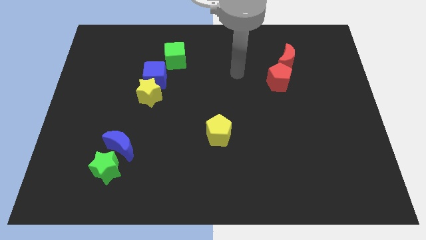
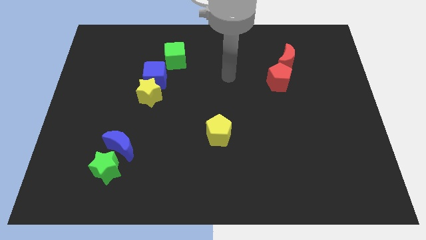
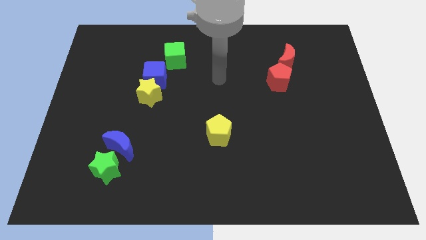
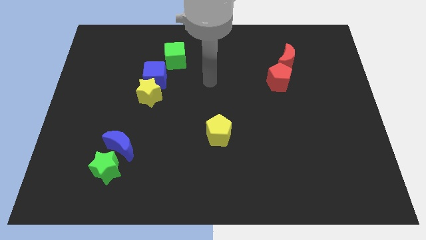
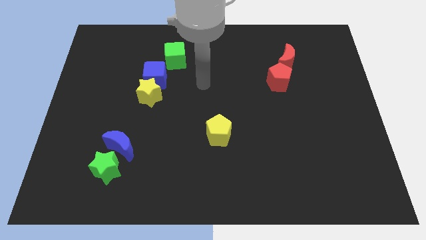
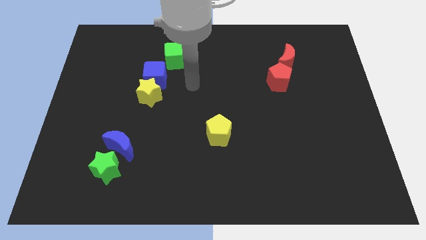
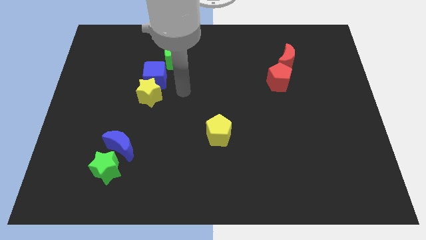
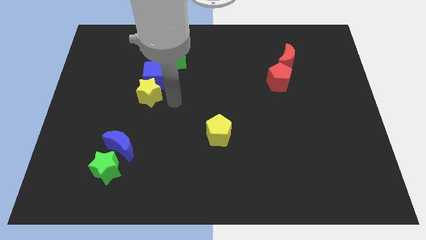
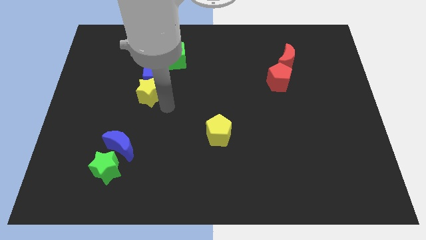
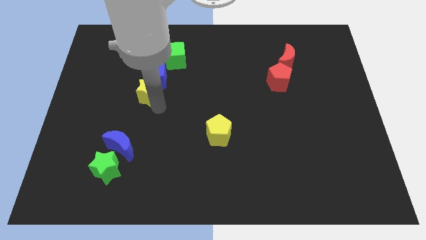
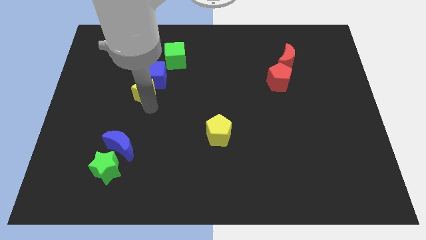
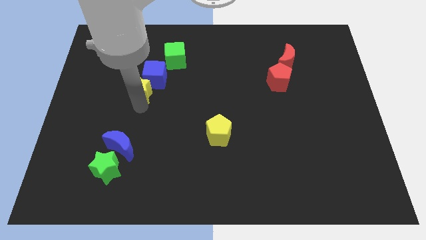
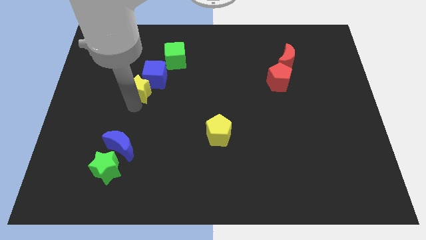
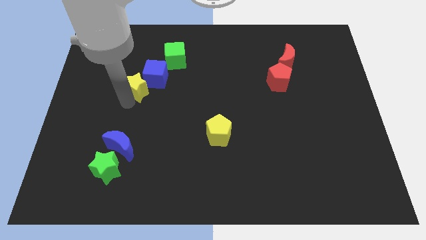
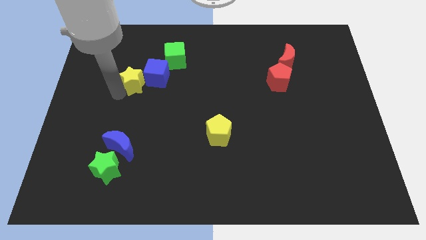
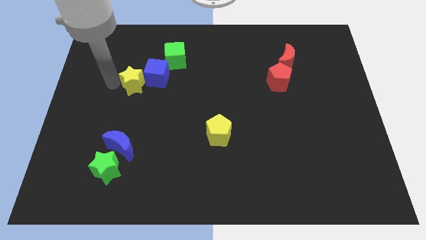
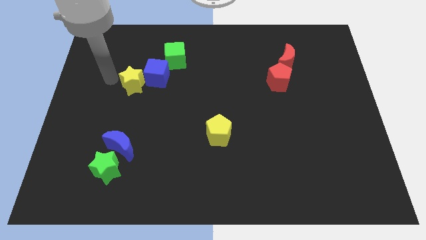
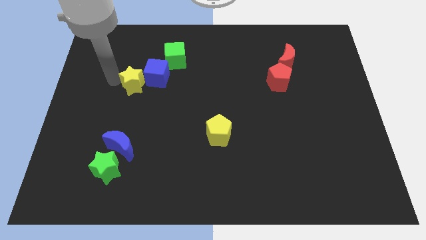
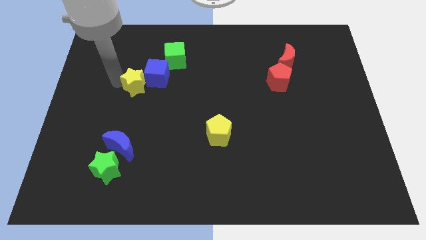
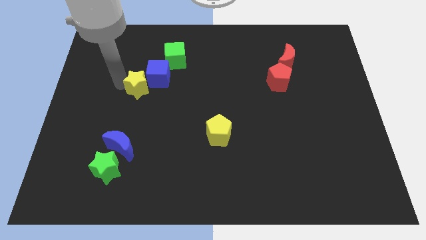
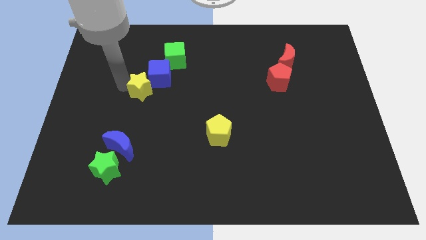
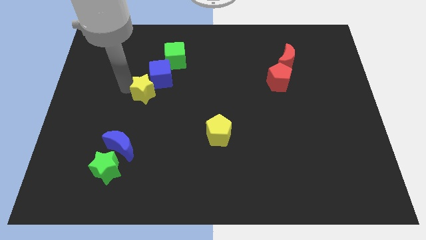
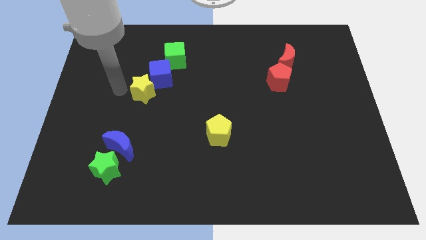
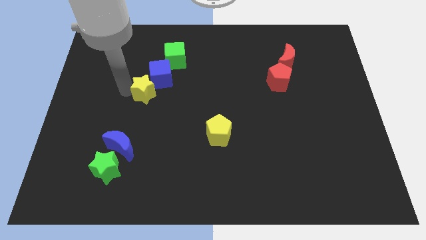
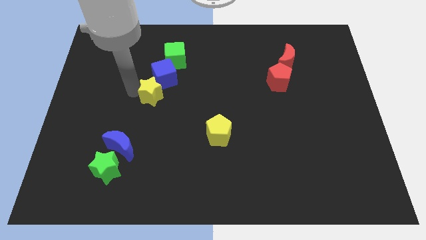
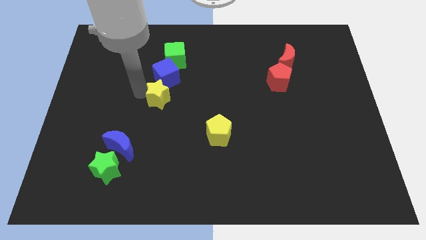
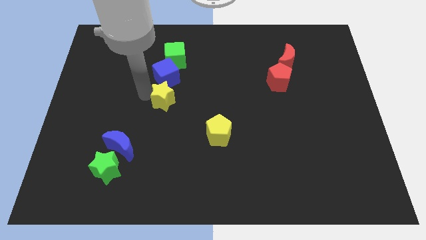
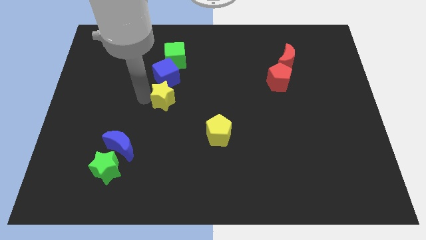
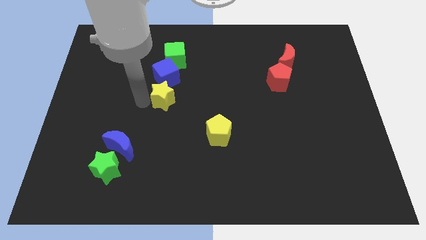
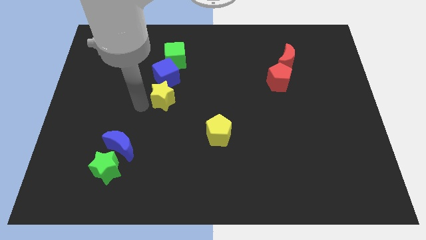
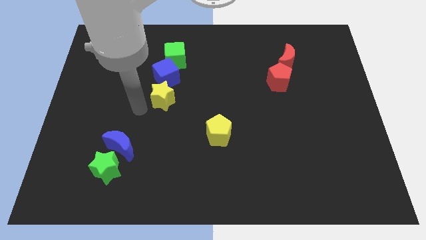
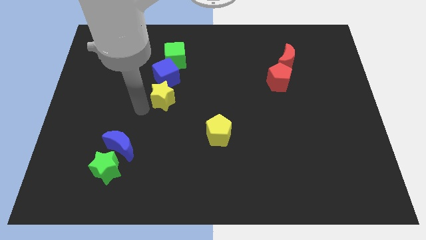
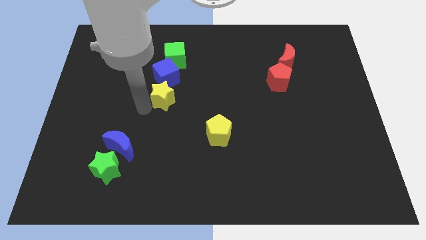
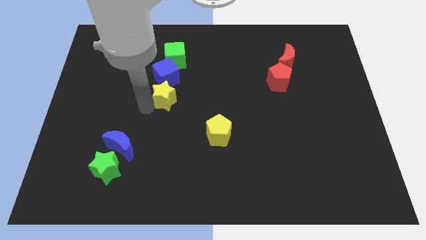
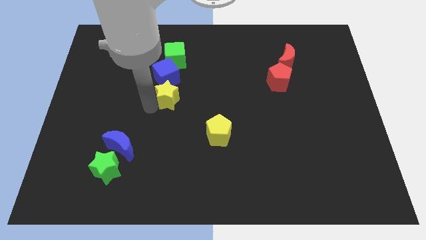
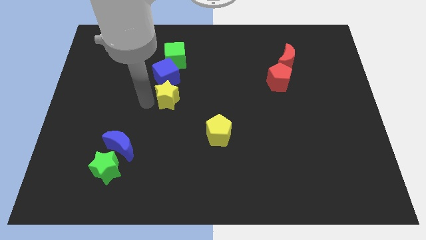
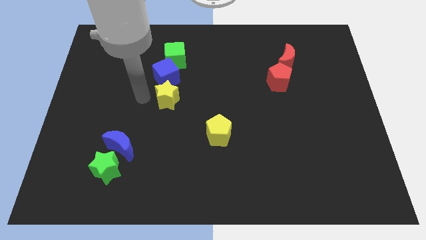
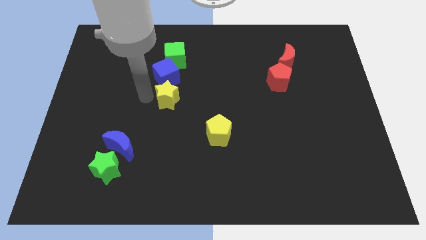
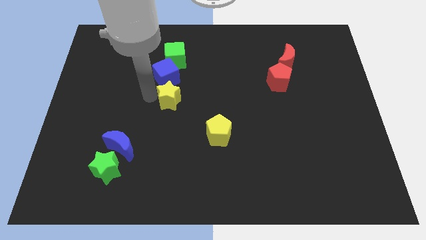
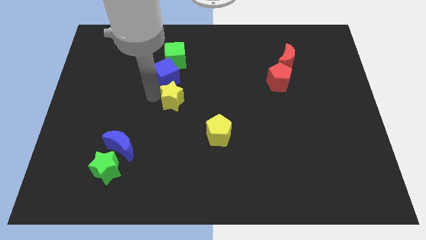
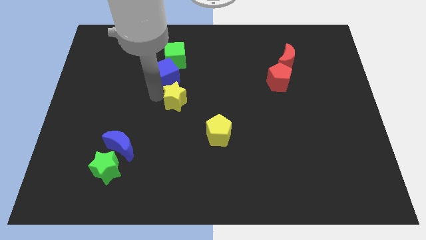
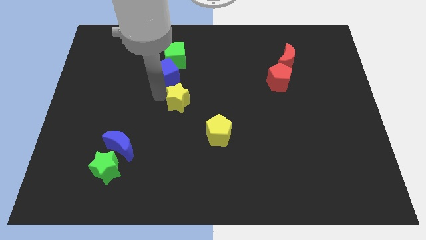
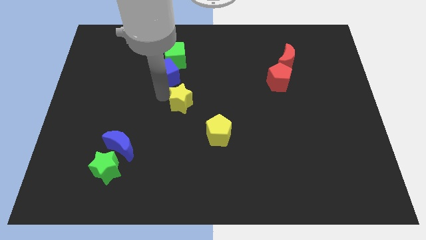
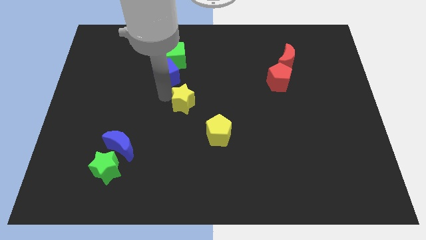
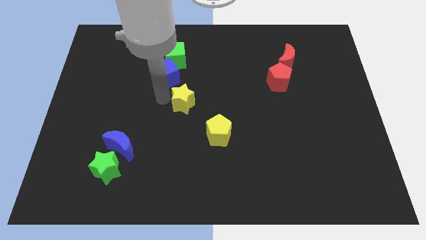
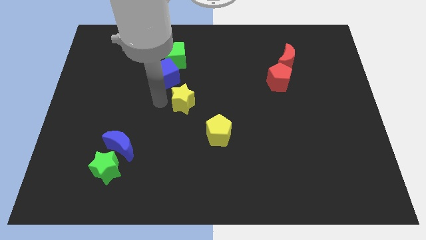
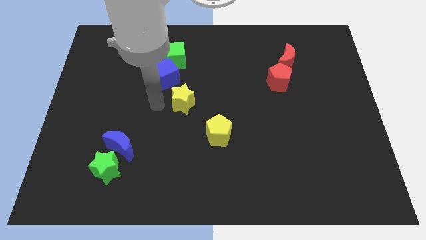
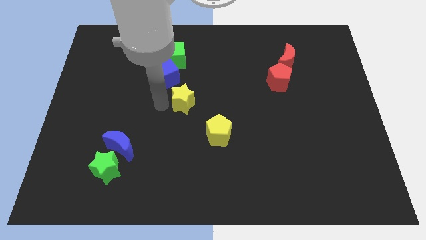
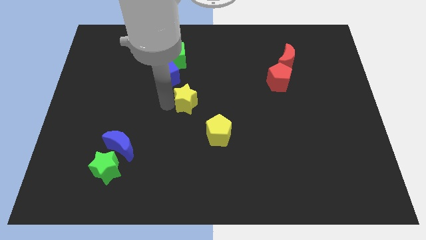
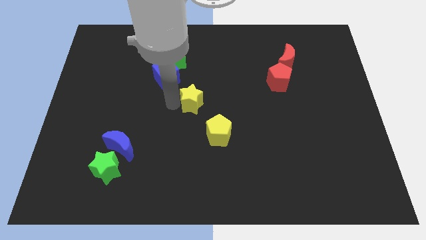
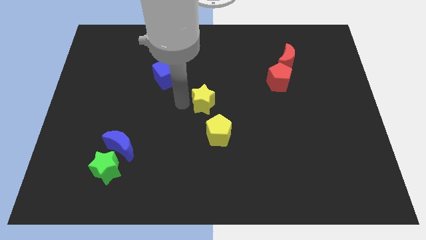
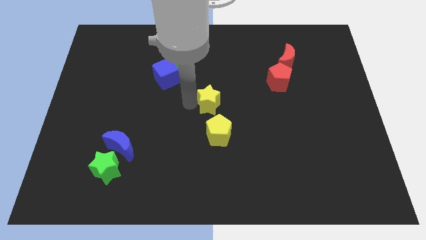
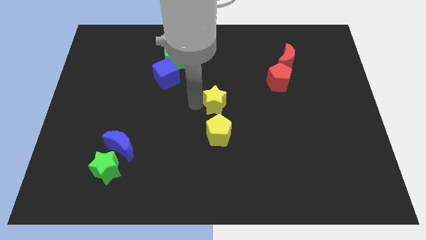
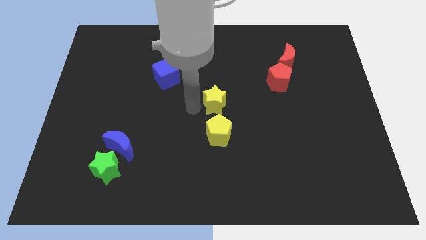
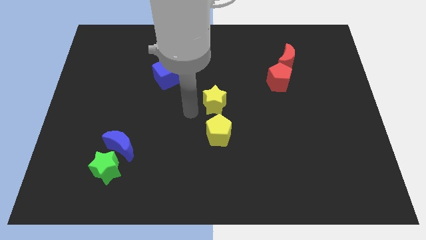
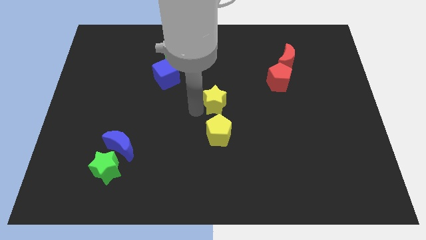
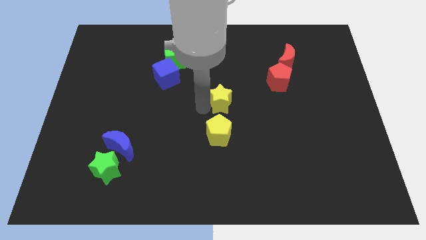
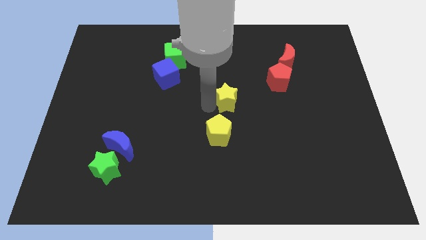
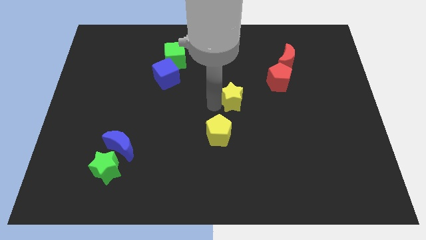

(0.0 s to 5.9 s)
move the yellow star to the right

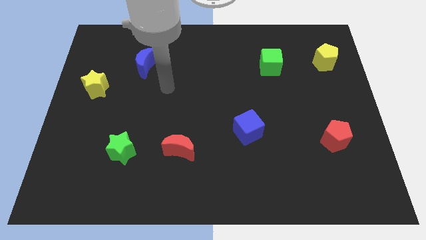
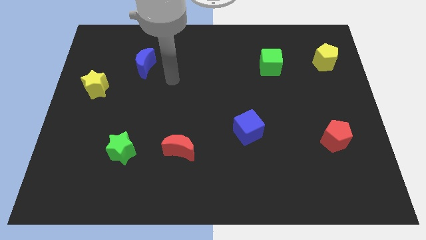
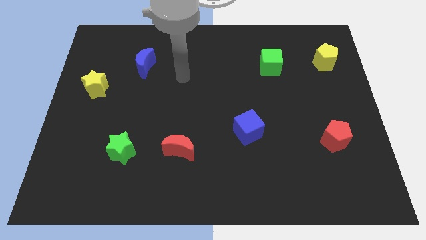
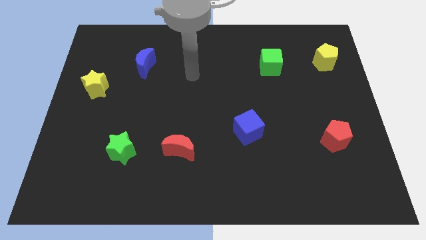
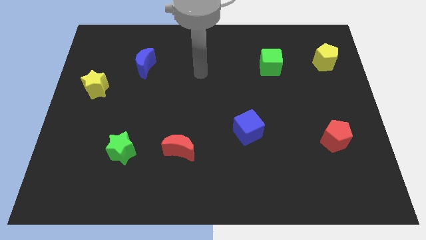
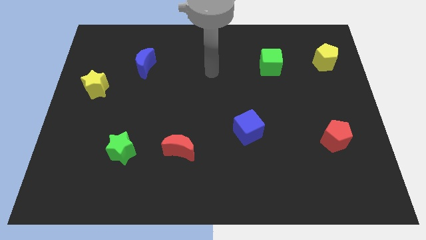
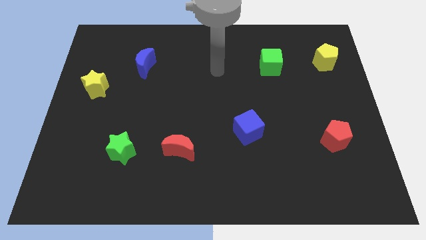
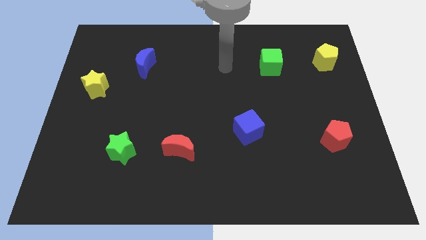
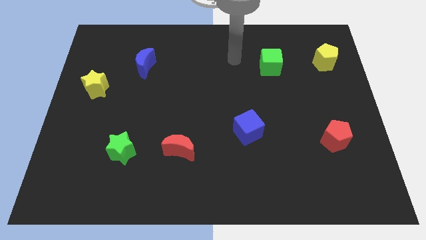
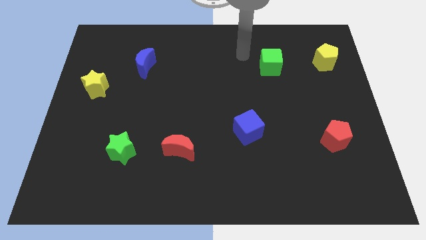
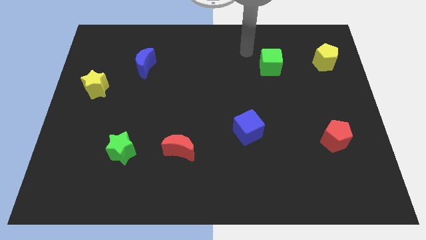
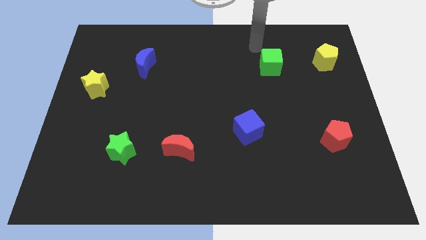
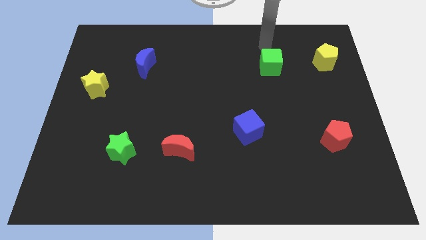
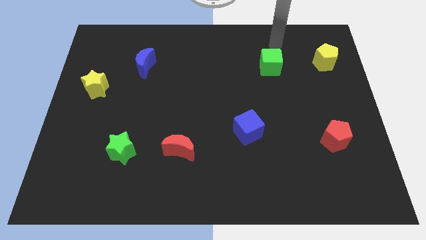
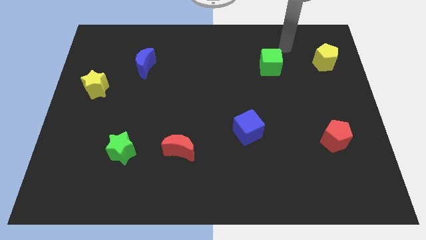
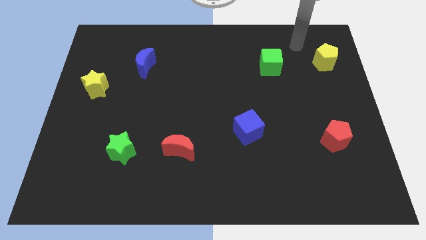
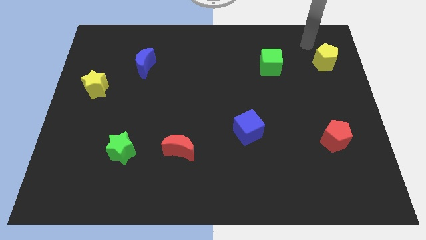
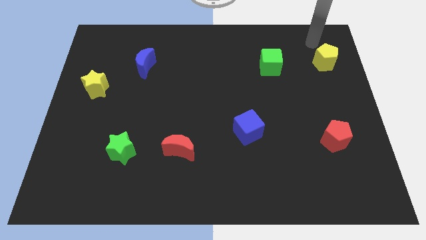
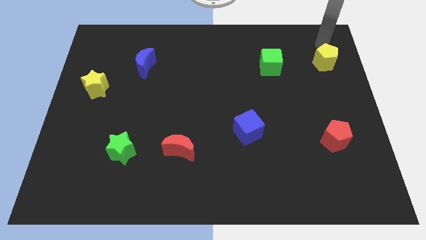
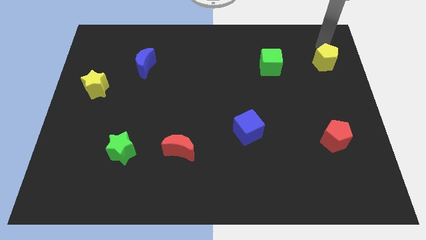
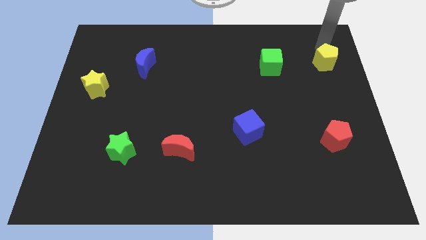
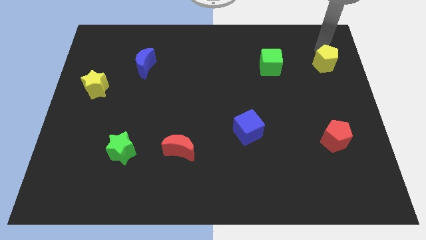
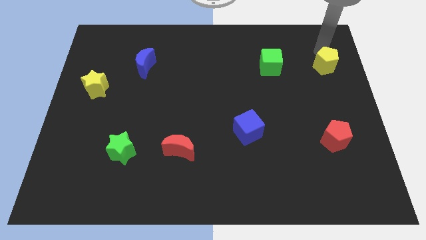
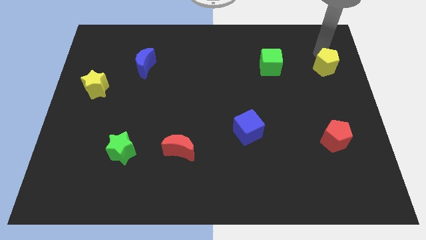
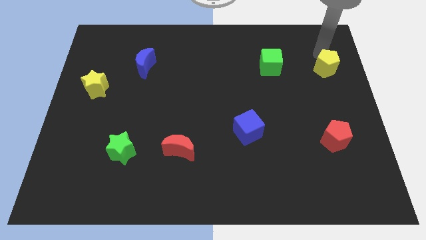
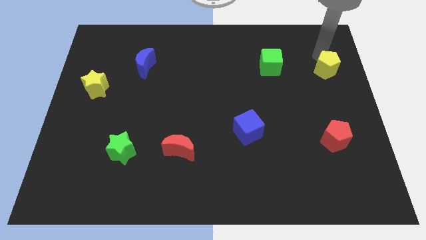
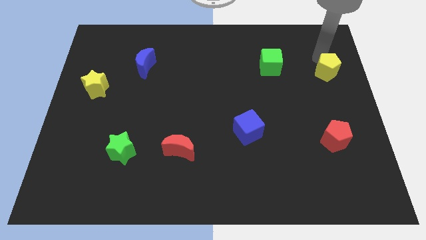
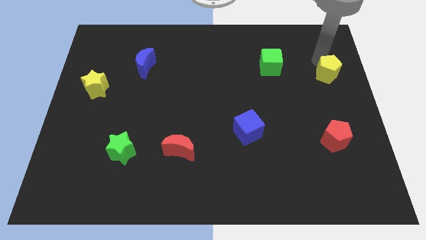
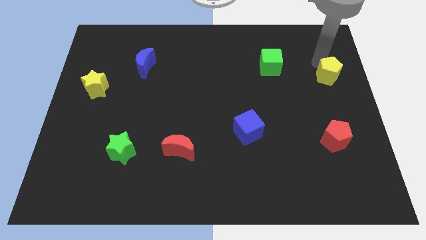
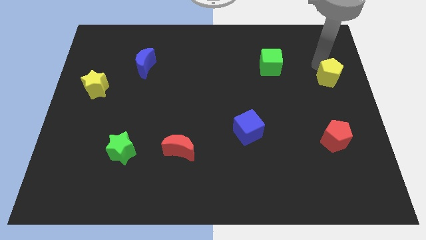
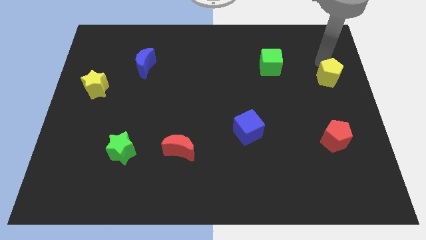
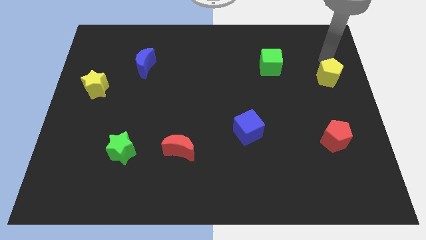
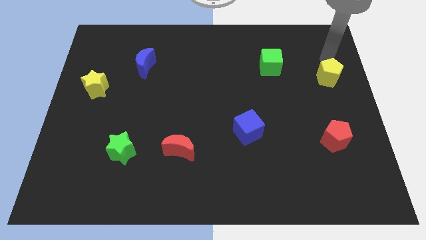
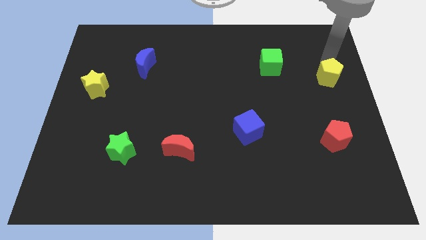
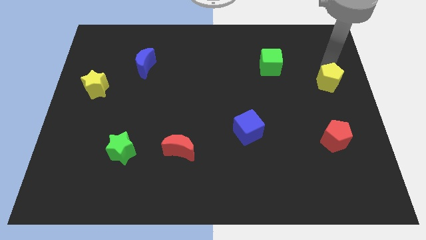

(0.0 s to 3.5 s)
push the yellow pentagon downwards a bit
